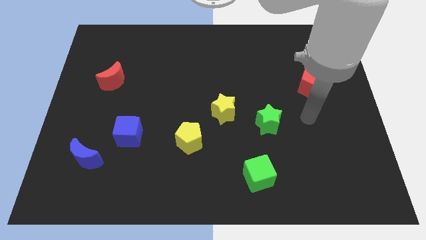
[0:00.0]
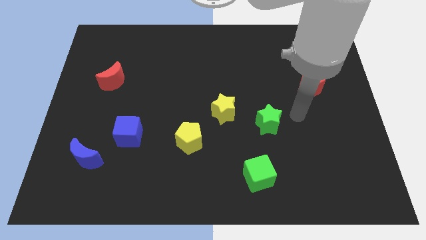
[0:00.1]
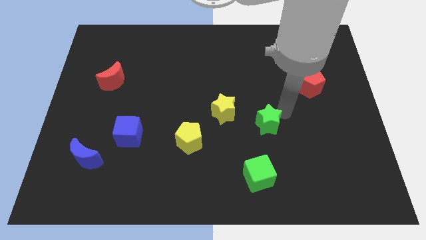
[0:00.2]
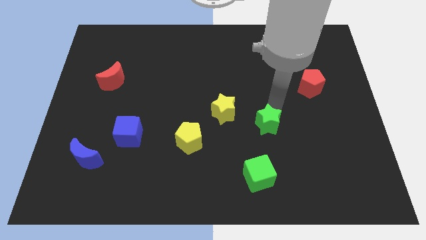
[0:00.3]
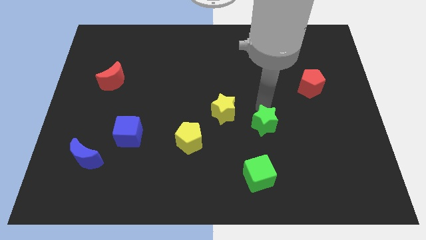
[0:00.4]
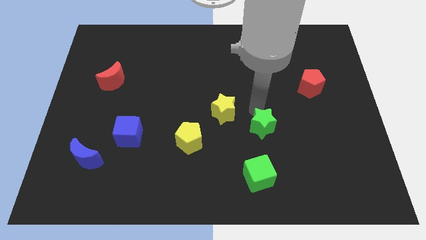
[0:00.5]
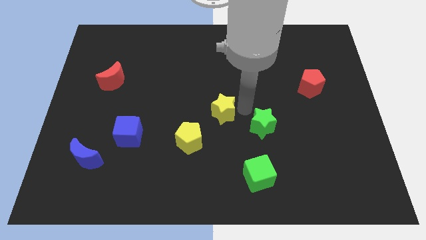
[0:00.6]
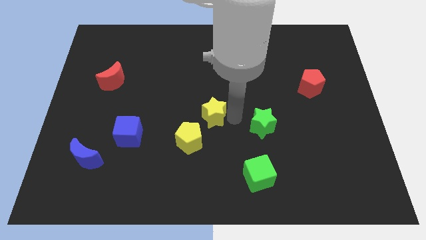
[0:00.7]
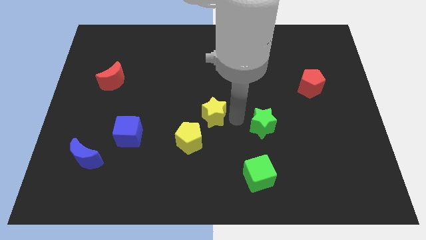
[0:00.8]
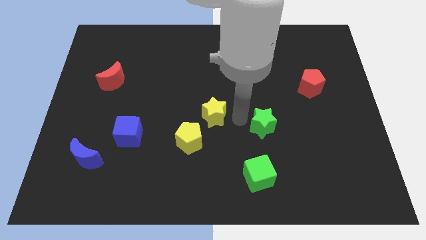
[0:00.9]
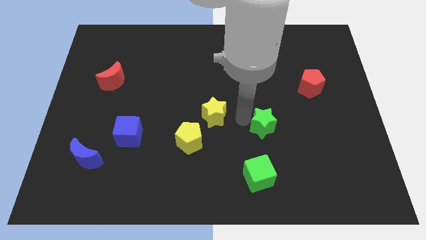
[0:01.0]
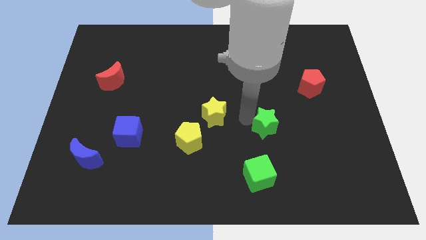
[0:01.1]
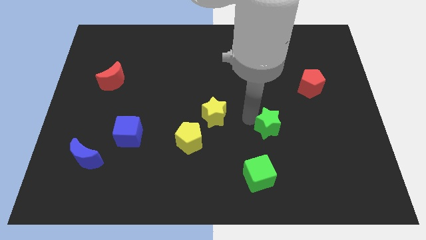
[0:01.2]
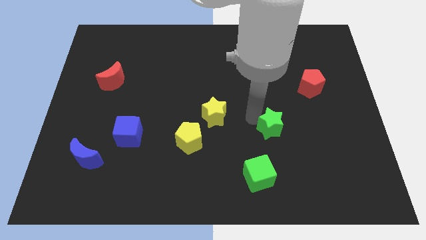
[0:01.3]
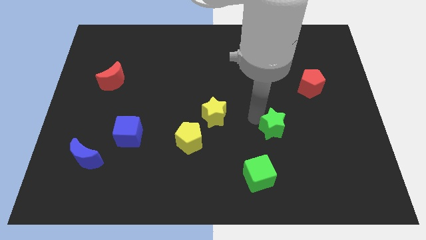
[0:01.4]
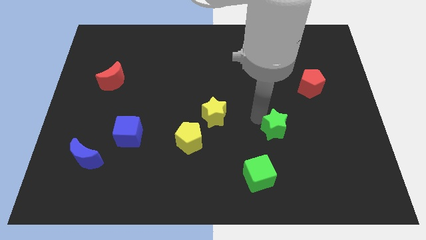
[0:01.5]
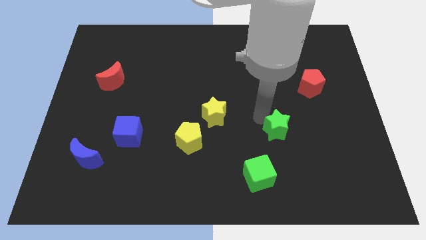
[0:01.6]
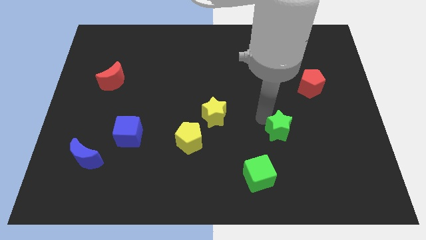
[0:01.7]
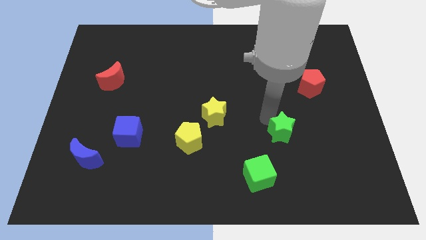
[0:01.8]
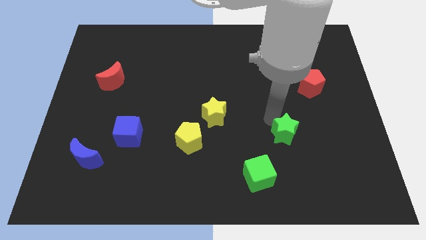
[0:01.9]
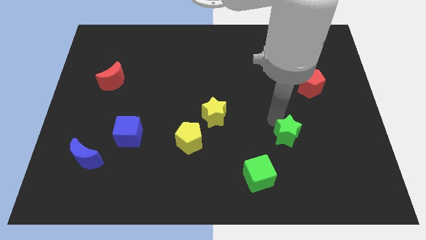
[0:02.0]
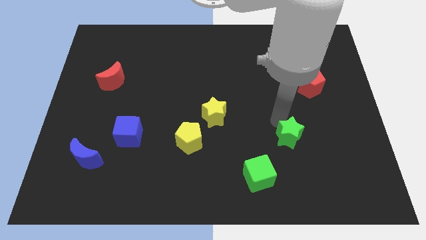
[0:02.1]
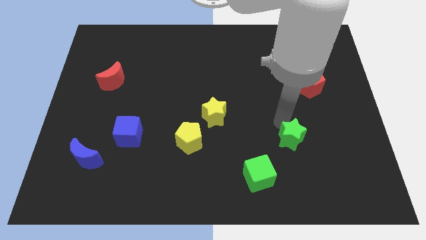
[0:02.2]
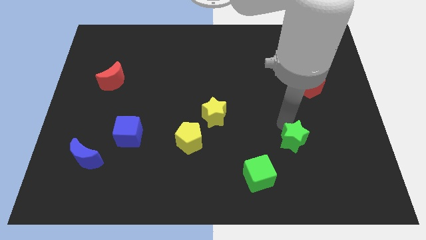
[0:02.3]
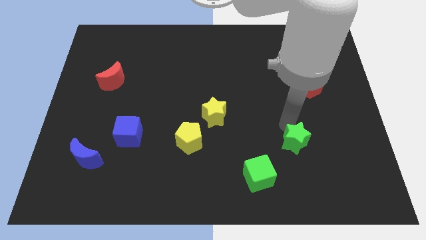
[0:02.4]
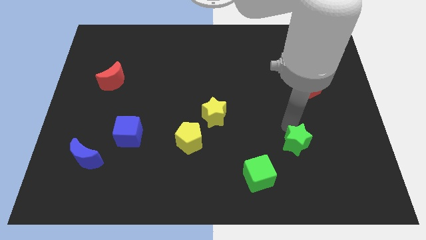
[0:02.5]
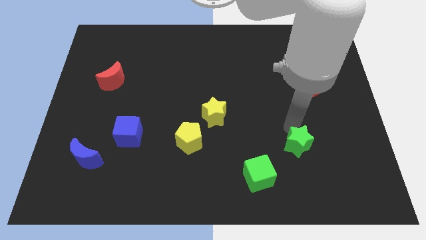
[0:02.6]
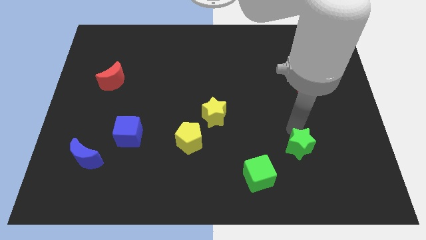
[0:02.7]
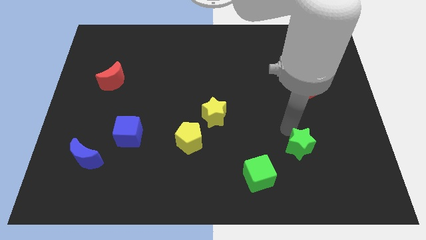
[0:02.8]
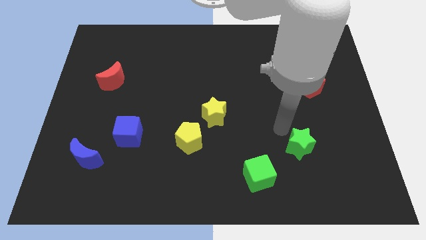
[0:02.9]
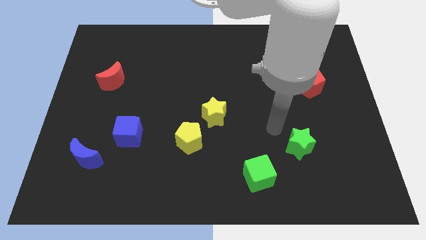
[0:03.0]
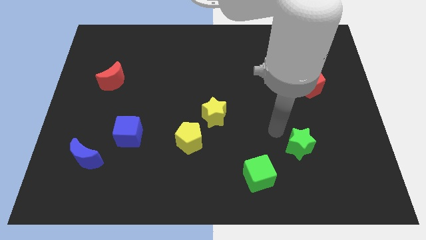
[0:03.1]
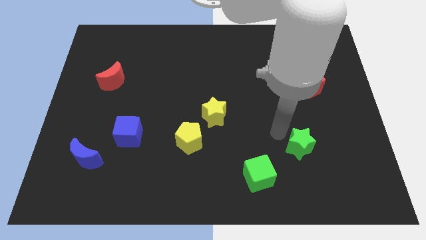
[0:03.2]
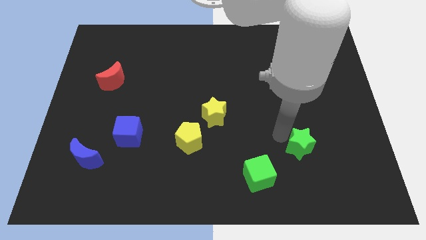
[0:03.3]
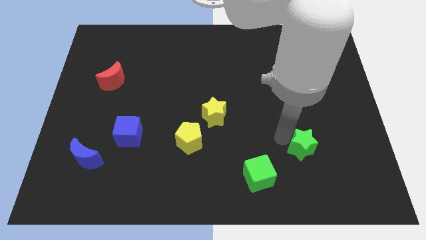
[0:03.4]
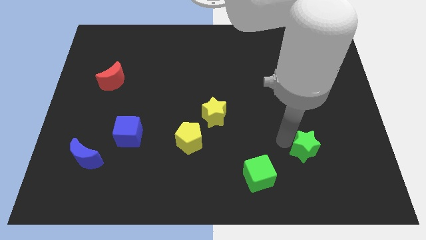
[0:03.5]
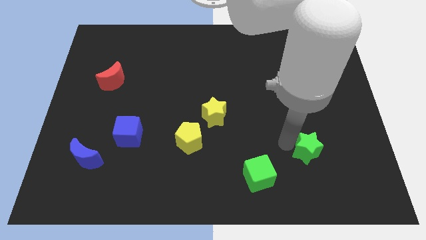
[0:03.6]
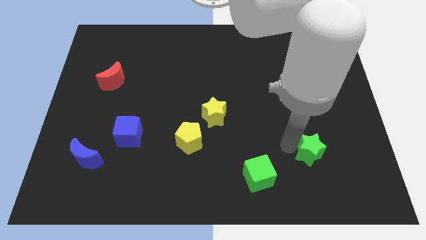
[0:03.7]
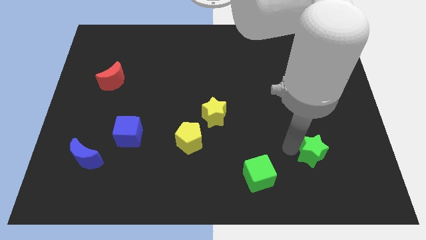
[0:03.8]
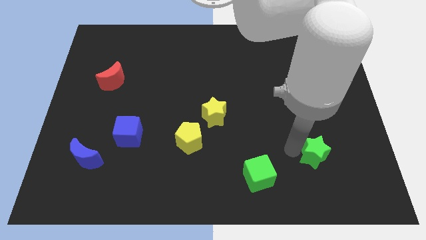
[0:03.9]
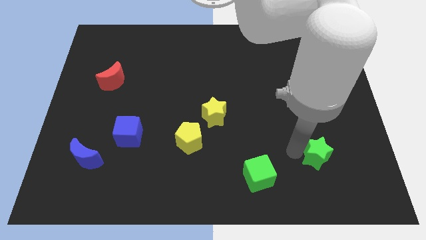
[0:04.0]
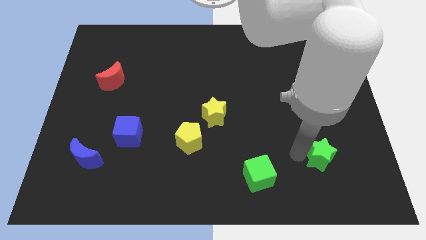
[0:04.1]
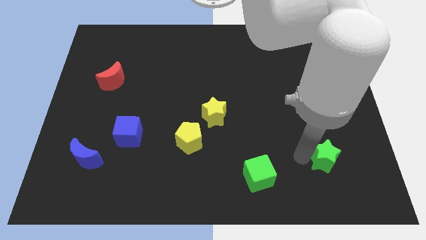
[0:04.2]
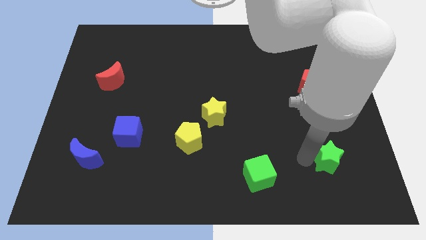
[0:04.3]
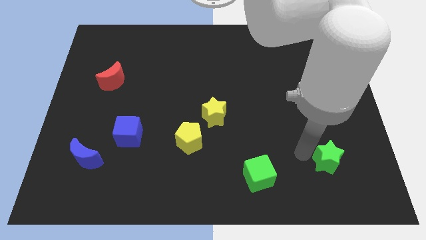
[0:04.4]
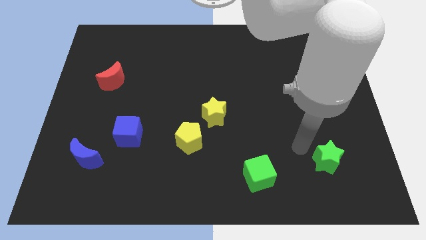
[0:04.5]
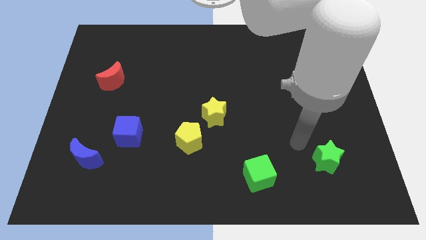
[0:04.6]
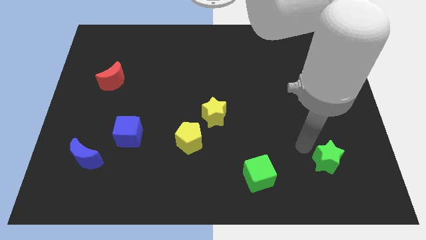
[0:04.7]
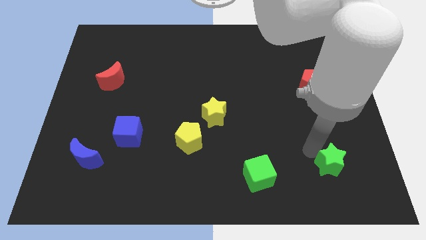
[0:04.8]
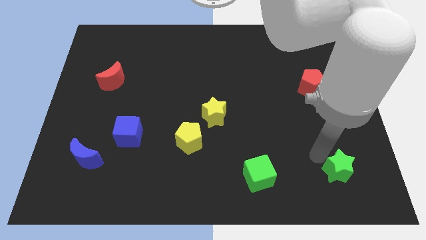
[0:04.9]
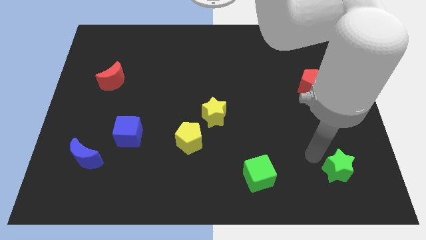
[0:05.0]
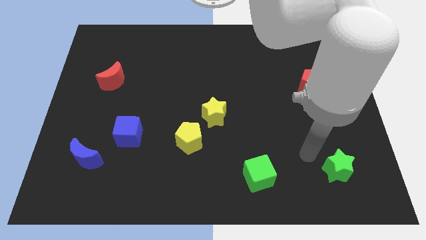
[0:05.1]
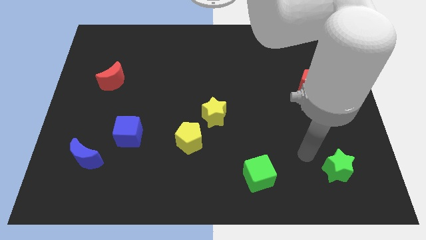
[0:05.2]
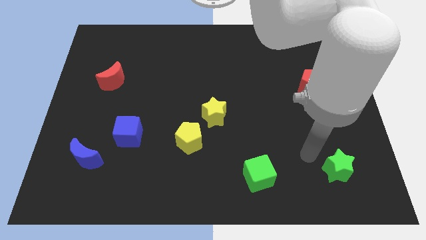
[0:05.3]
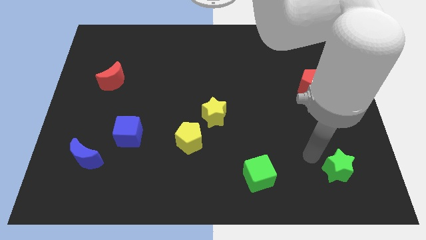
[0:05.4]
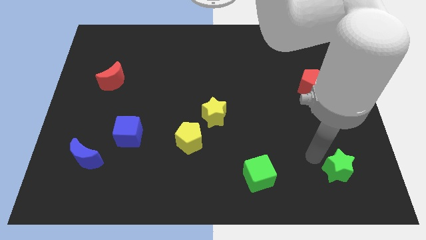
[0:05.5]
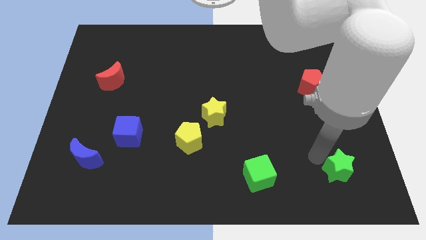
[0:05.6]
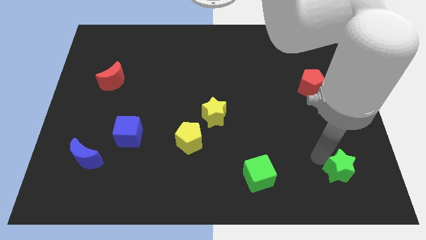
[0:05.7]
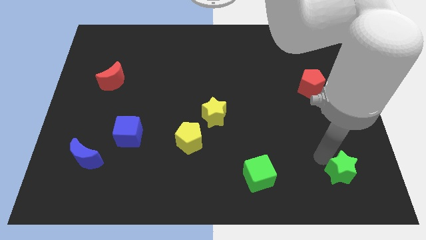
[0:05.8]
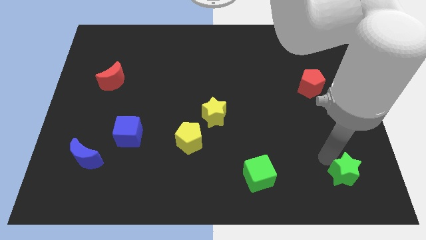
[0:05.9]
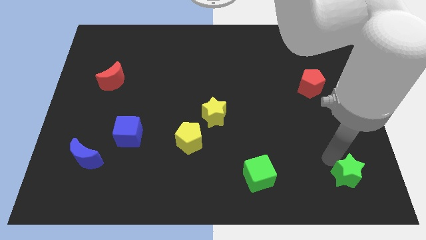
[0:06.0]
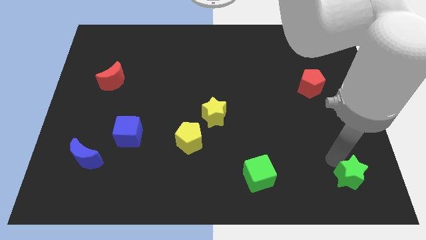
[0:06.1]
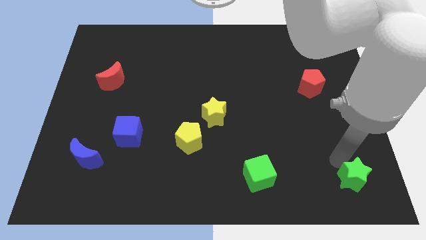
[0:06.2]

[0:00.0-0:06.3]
move the green star to the lower right corner
